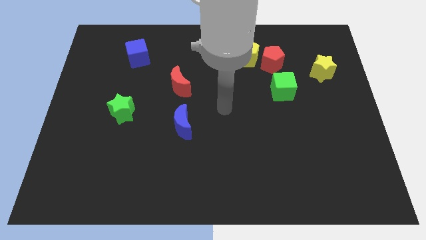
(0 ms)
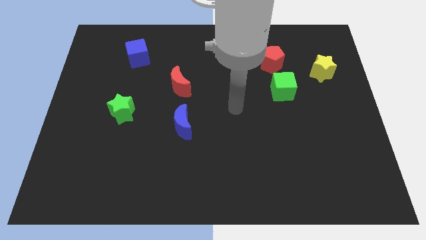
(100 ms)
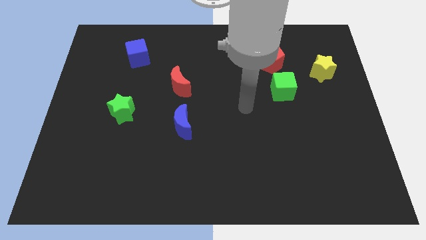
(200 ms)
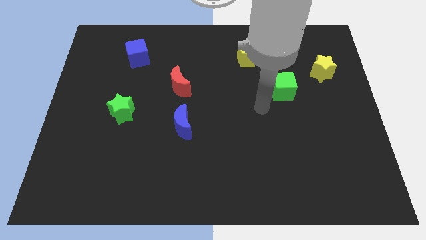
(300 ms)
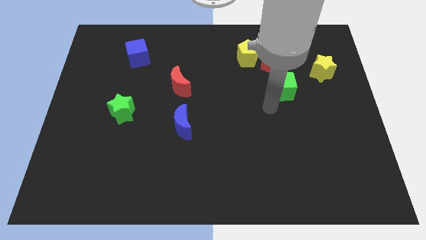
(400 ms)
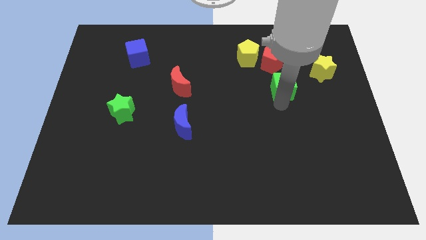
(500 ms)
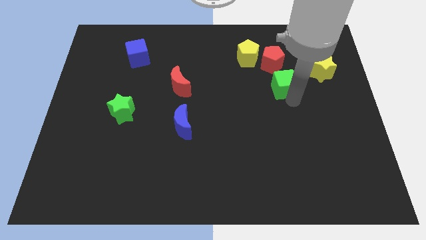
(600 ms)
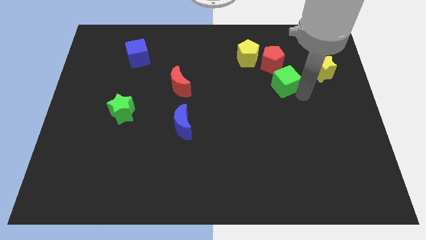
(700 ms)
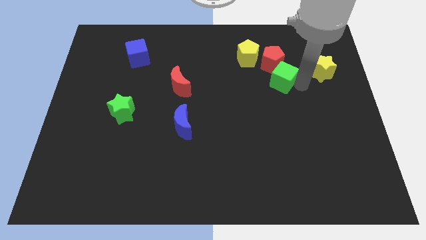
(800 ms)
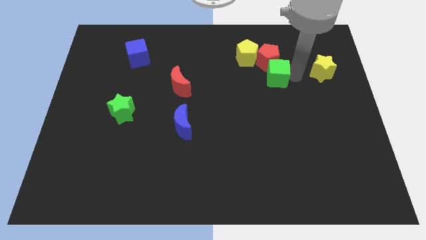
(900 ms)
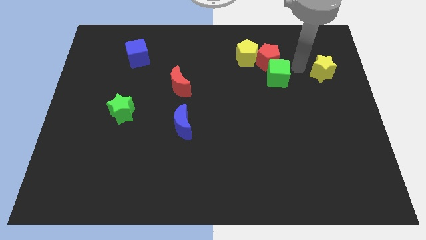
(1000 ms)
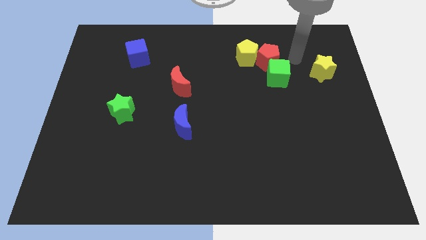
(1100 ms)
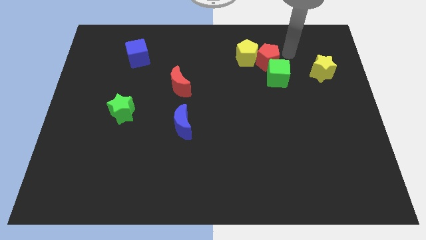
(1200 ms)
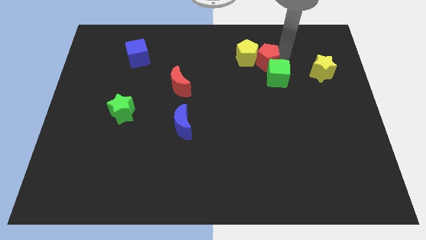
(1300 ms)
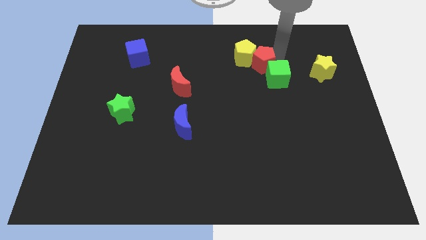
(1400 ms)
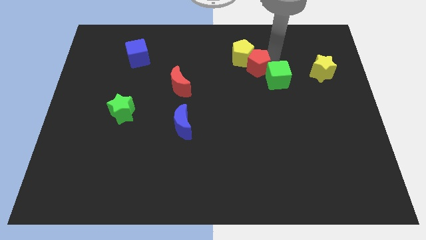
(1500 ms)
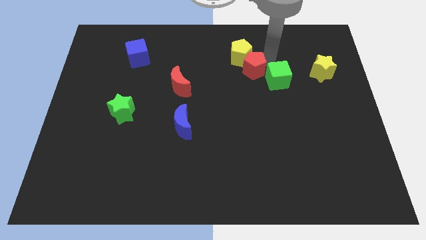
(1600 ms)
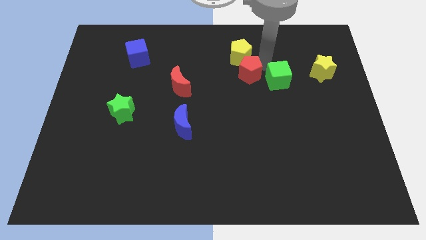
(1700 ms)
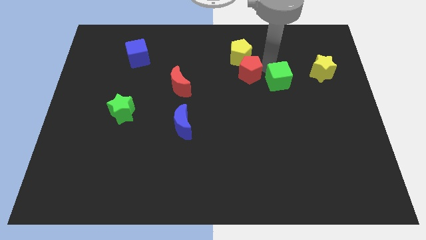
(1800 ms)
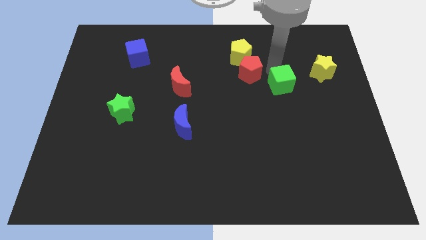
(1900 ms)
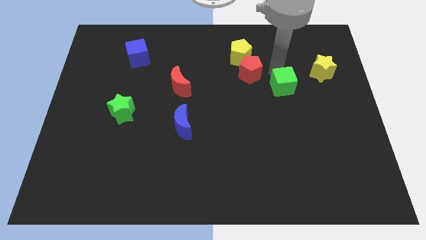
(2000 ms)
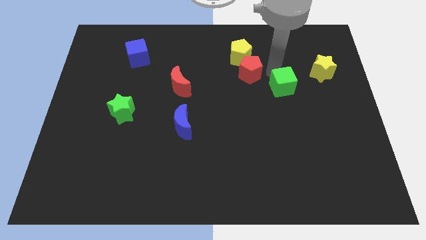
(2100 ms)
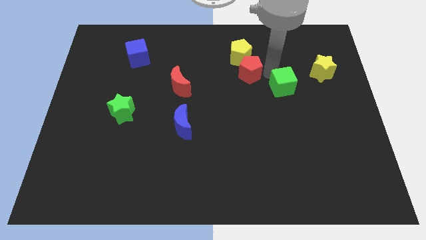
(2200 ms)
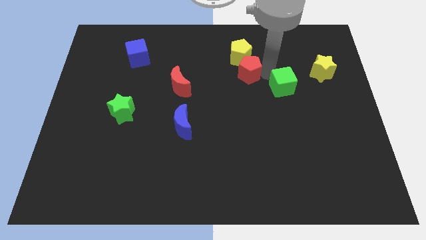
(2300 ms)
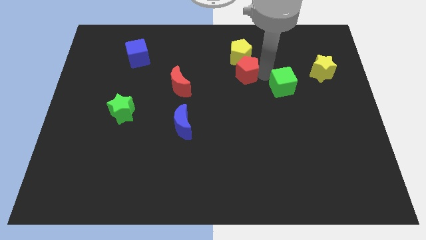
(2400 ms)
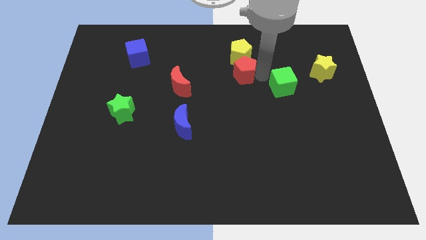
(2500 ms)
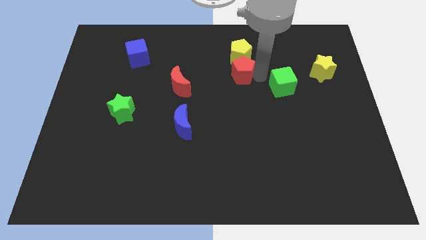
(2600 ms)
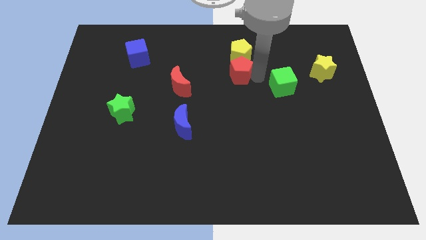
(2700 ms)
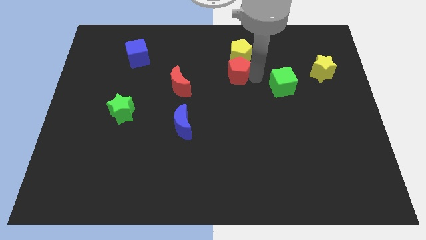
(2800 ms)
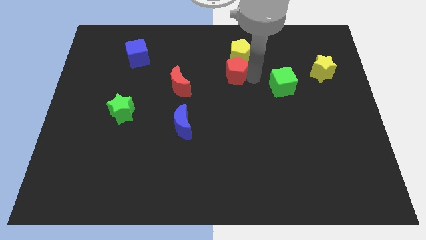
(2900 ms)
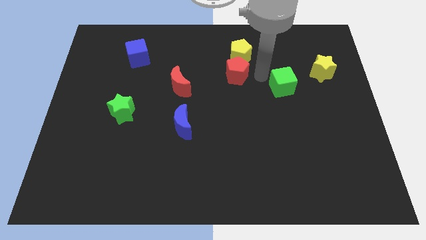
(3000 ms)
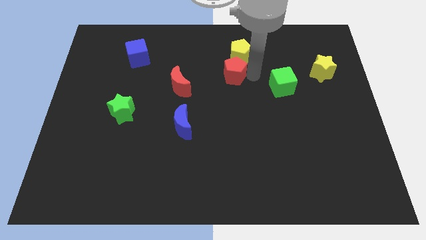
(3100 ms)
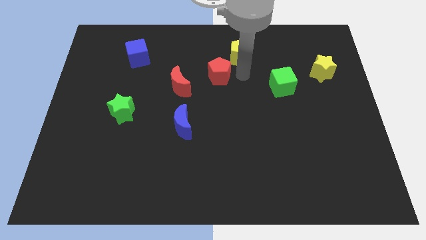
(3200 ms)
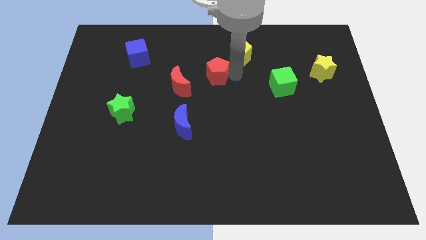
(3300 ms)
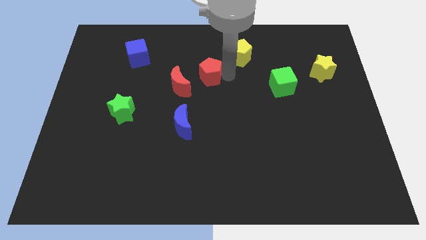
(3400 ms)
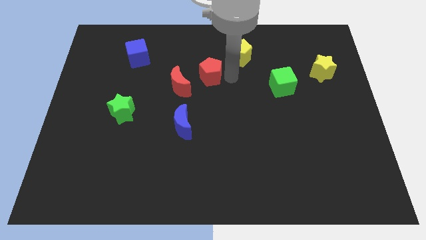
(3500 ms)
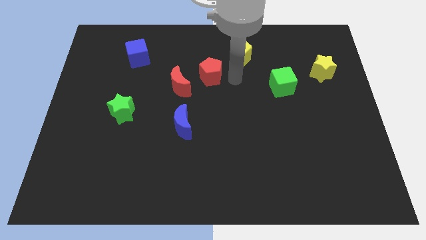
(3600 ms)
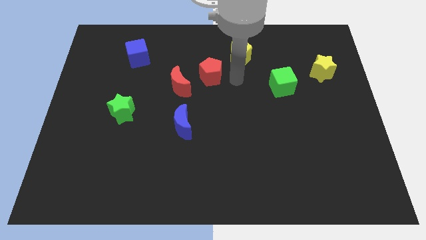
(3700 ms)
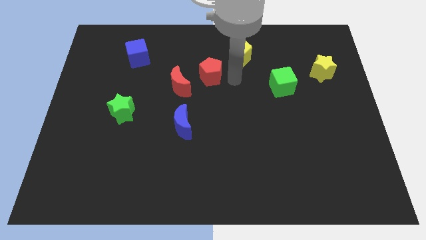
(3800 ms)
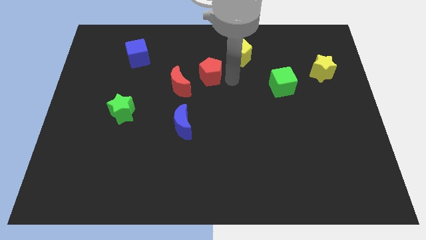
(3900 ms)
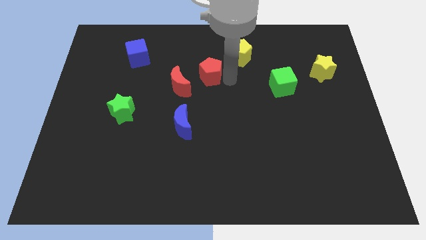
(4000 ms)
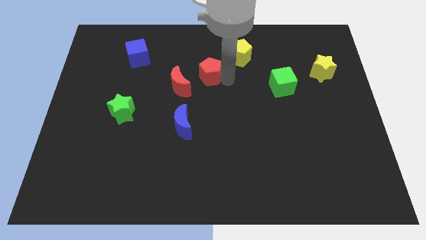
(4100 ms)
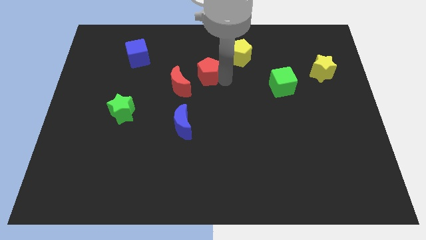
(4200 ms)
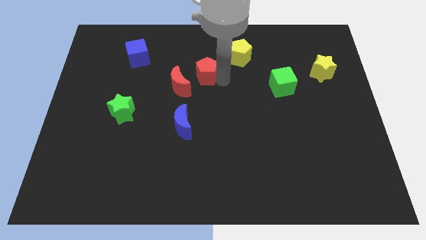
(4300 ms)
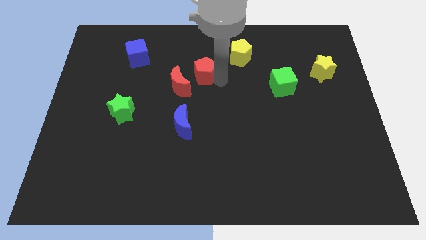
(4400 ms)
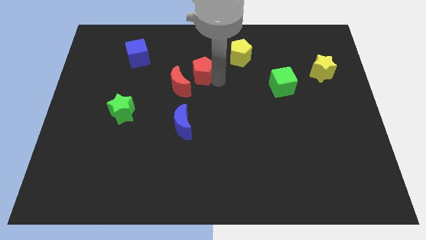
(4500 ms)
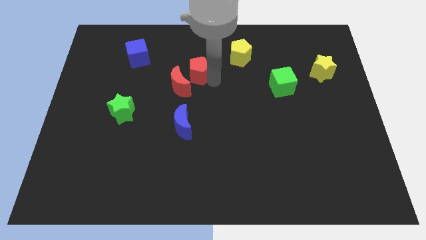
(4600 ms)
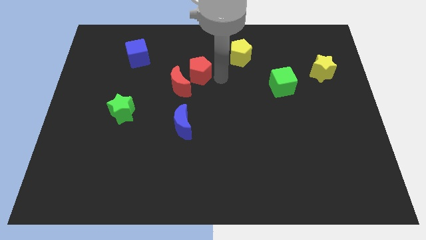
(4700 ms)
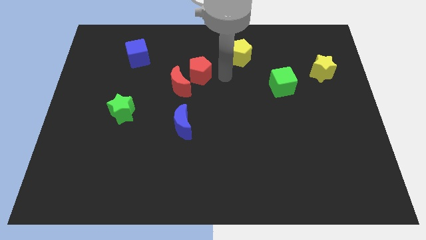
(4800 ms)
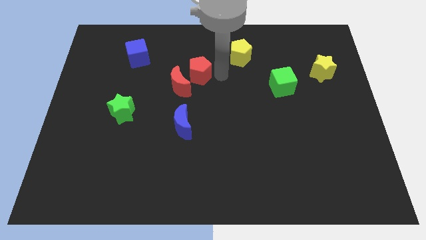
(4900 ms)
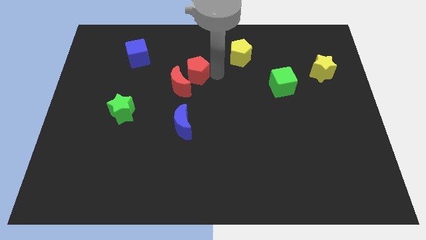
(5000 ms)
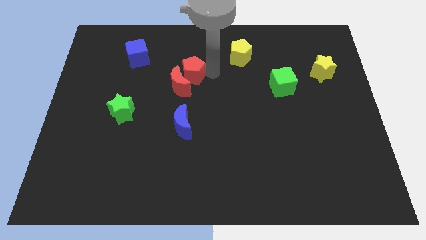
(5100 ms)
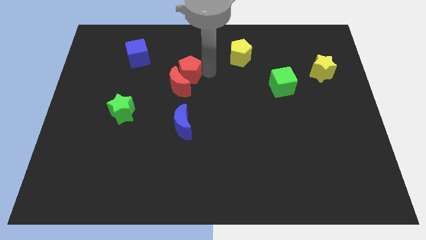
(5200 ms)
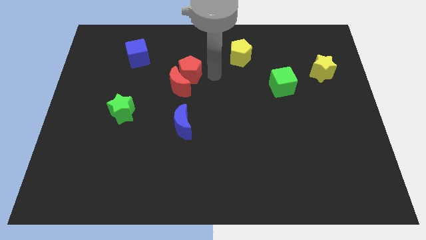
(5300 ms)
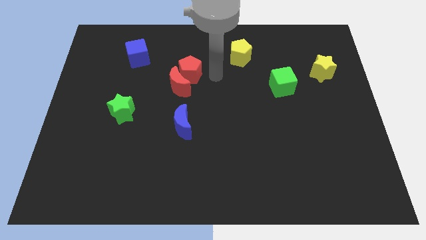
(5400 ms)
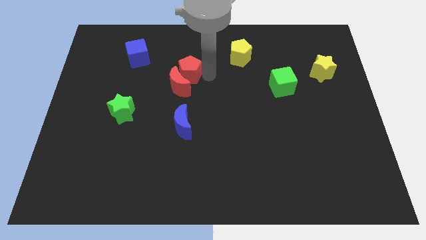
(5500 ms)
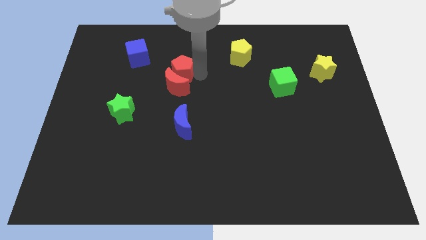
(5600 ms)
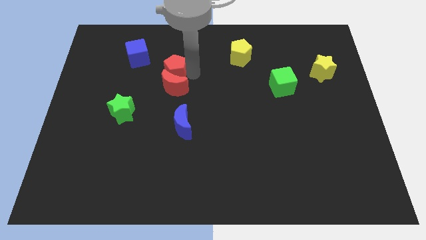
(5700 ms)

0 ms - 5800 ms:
push the red pentagon diagonally down and to the right of the blue cube

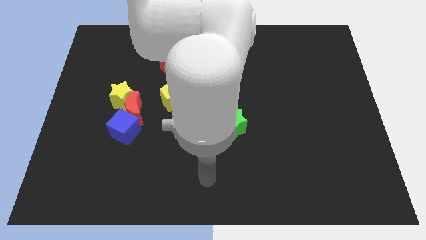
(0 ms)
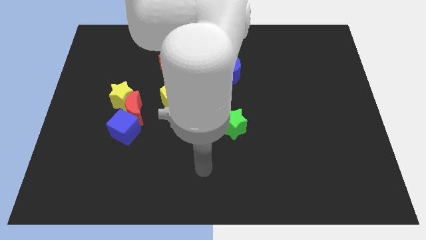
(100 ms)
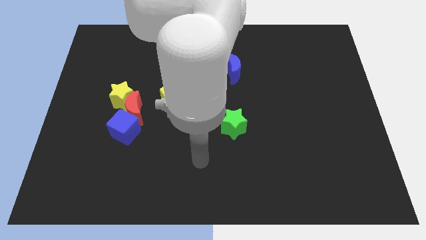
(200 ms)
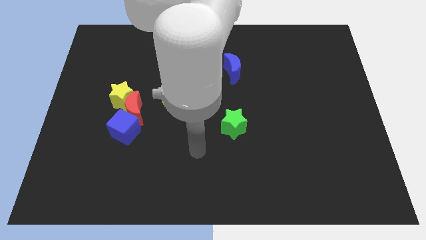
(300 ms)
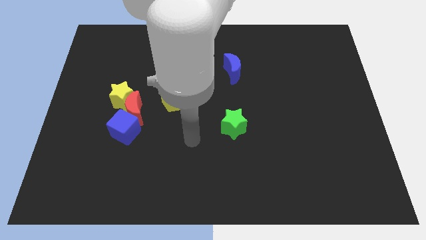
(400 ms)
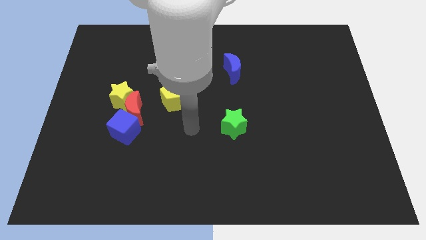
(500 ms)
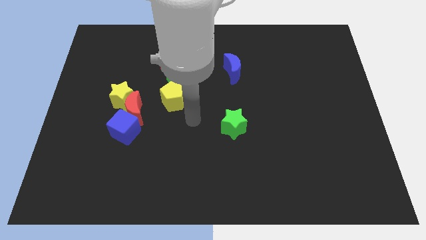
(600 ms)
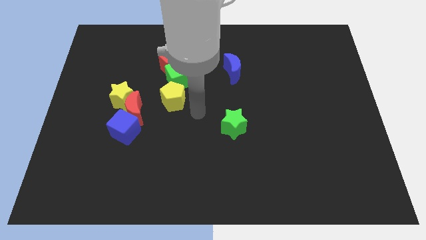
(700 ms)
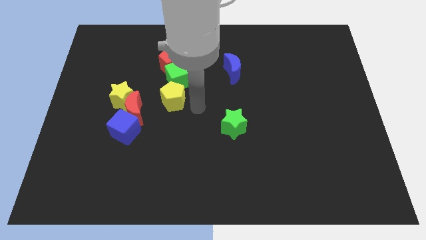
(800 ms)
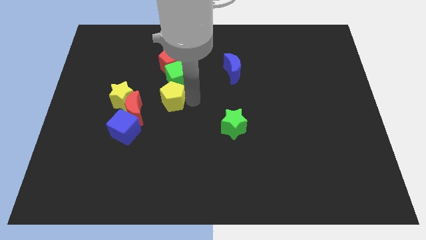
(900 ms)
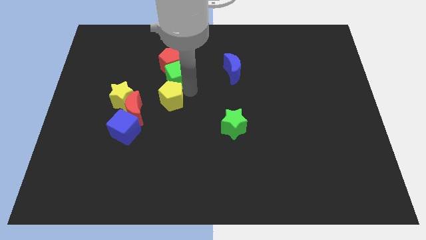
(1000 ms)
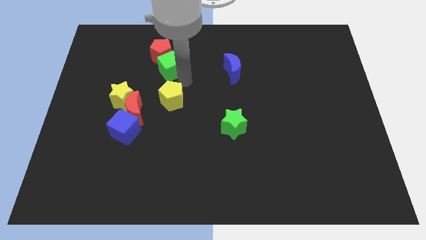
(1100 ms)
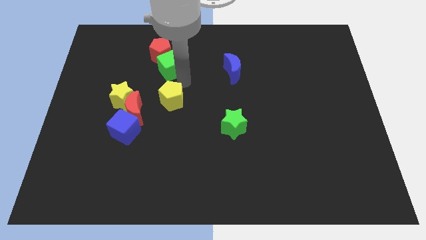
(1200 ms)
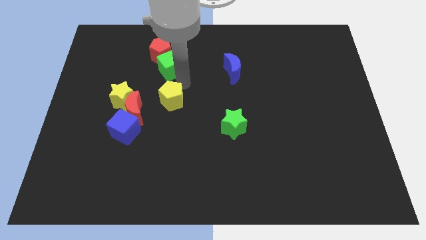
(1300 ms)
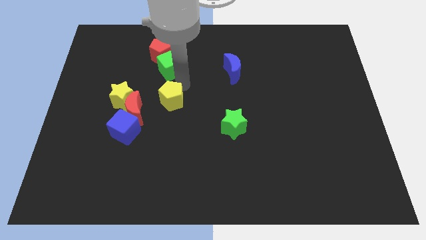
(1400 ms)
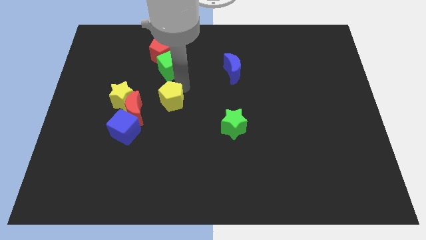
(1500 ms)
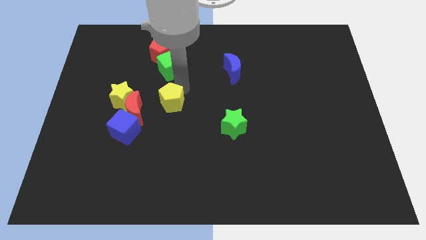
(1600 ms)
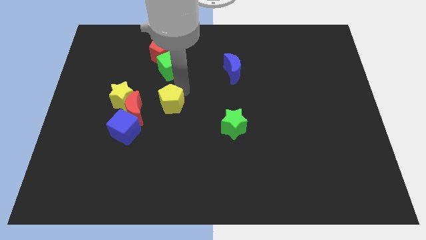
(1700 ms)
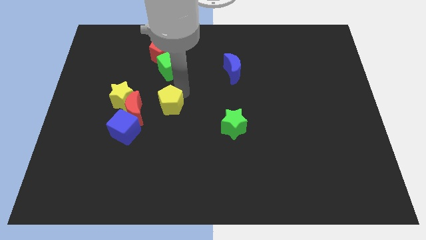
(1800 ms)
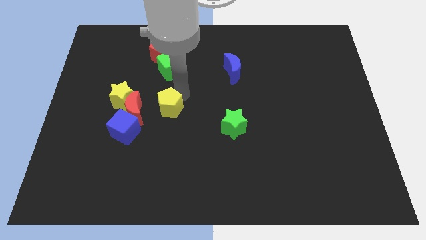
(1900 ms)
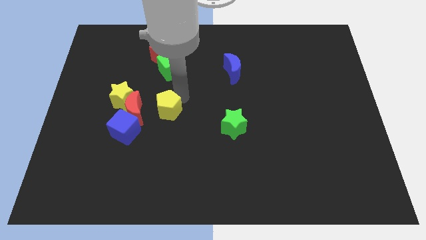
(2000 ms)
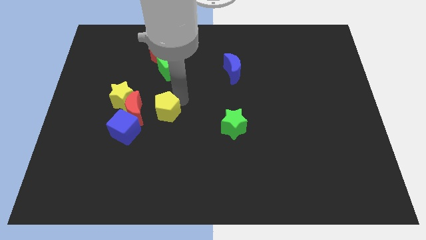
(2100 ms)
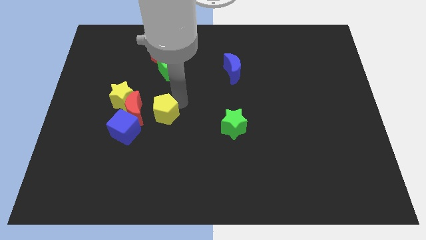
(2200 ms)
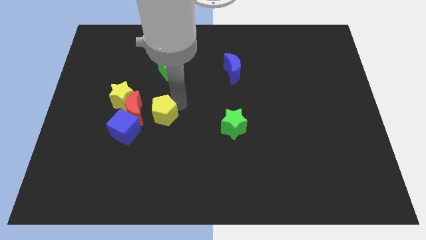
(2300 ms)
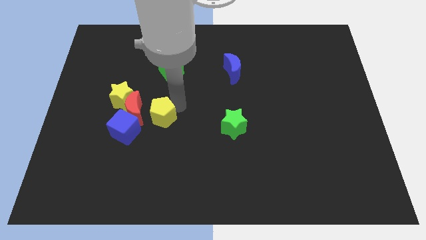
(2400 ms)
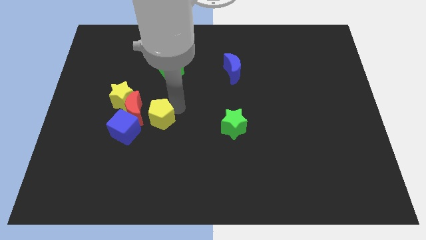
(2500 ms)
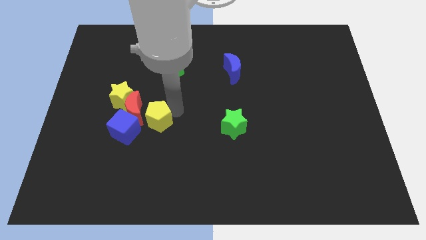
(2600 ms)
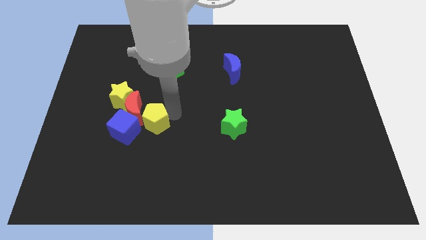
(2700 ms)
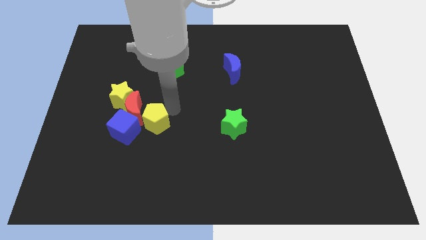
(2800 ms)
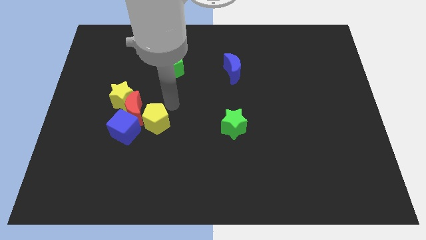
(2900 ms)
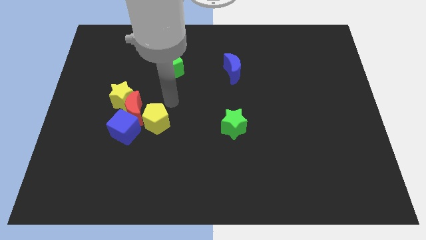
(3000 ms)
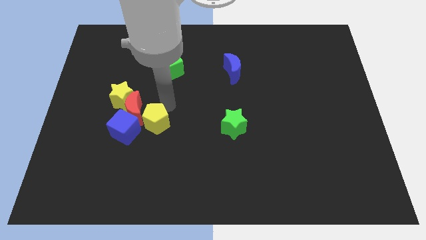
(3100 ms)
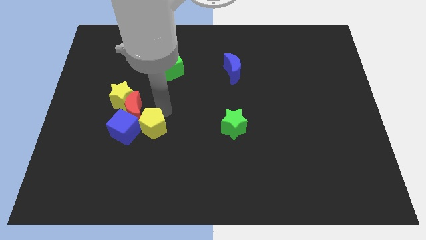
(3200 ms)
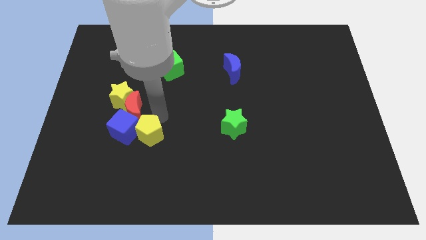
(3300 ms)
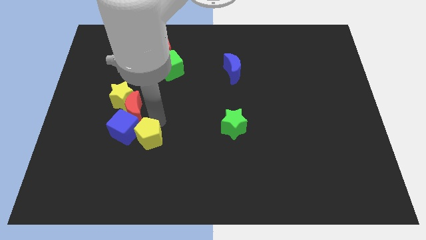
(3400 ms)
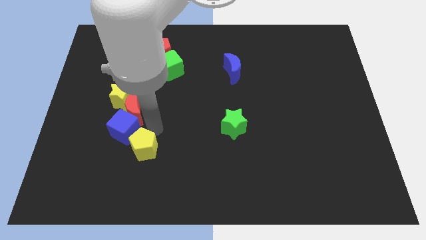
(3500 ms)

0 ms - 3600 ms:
move the yellow pentagon below the blue cube
